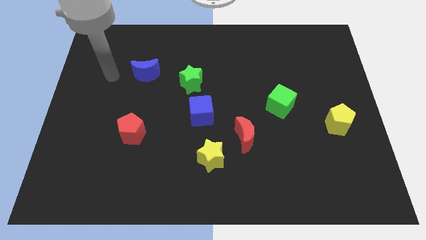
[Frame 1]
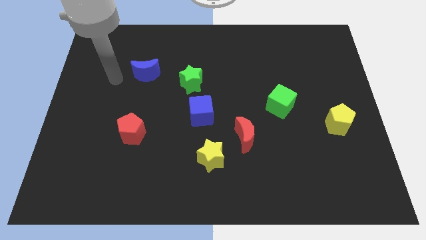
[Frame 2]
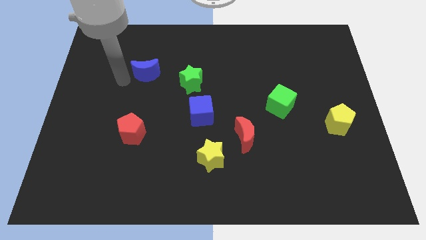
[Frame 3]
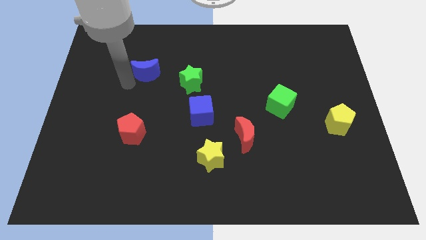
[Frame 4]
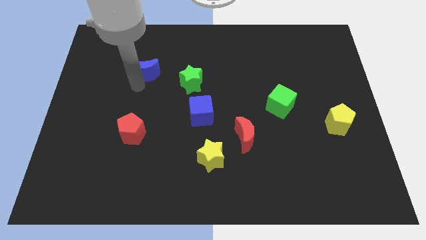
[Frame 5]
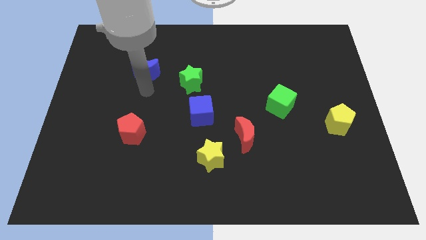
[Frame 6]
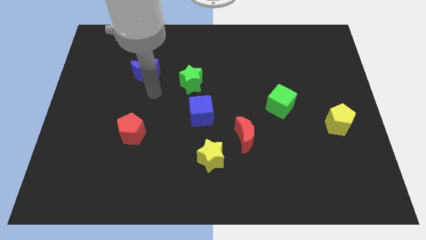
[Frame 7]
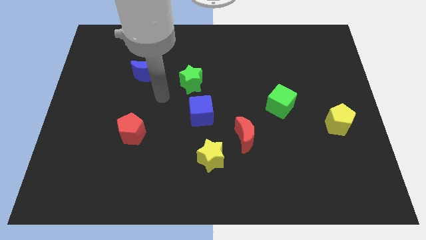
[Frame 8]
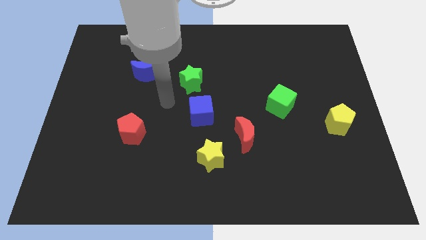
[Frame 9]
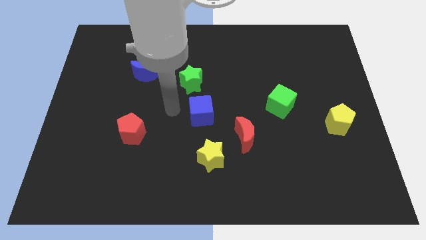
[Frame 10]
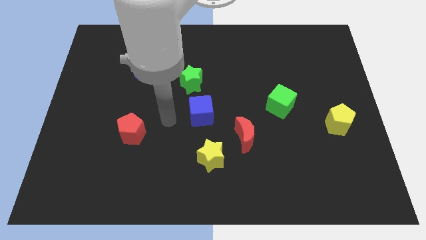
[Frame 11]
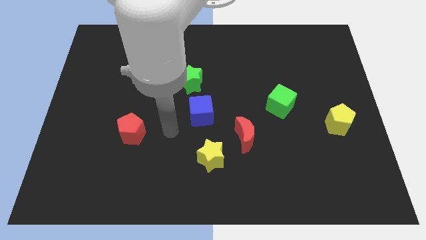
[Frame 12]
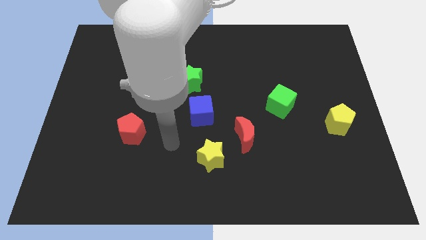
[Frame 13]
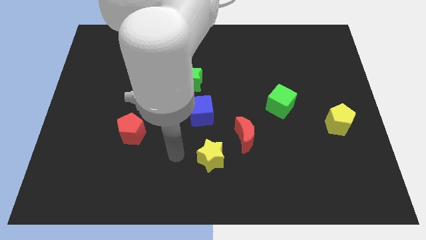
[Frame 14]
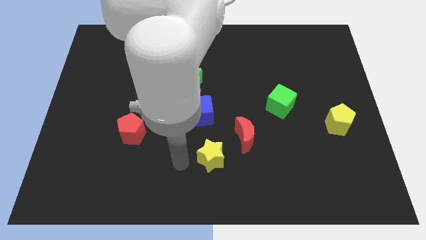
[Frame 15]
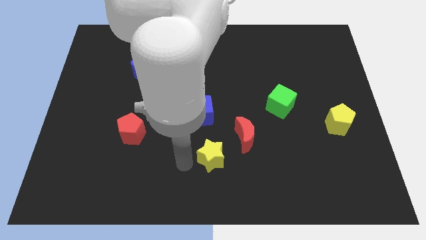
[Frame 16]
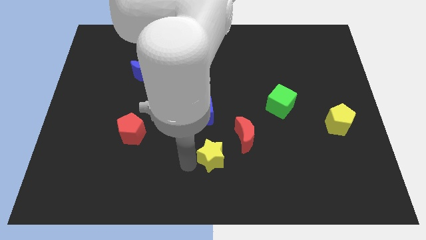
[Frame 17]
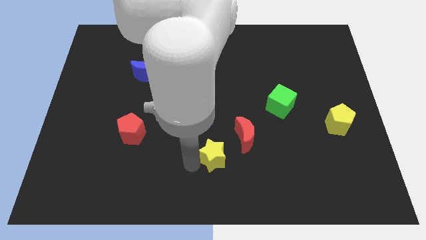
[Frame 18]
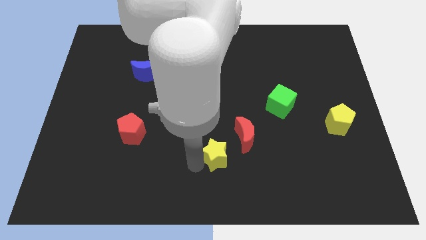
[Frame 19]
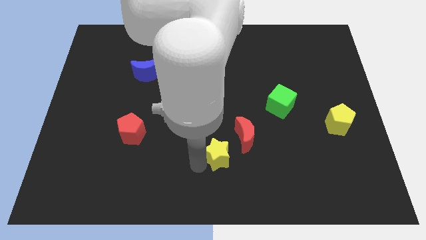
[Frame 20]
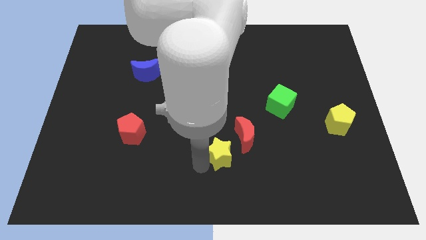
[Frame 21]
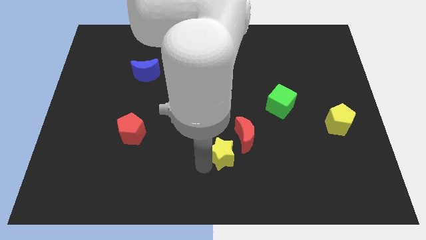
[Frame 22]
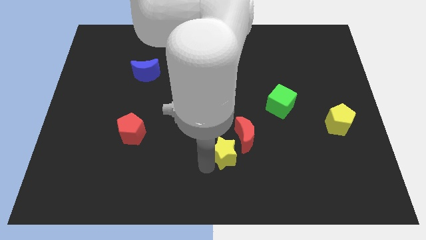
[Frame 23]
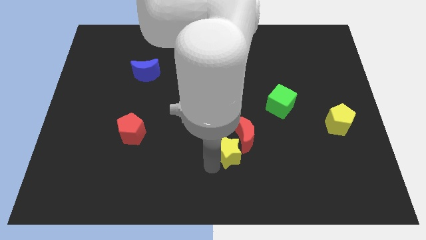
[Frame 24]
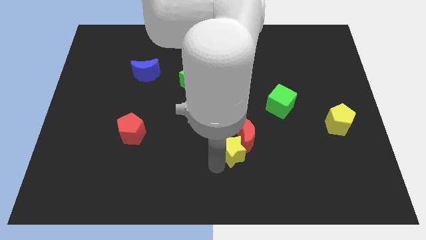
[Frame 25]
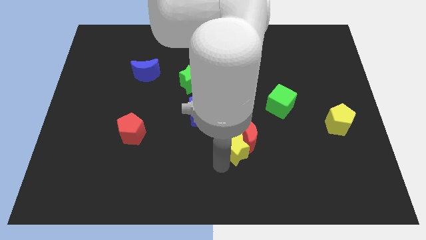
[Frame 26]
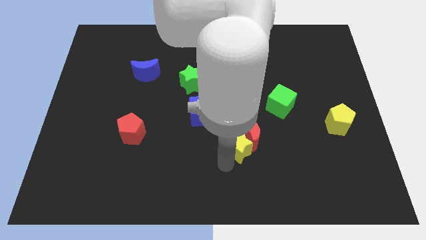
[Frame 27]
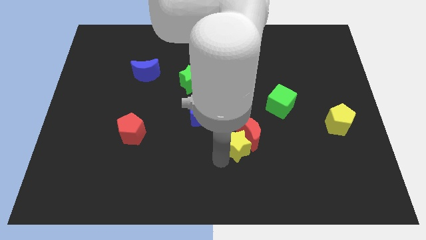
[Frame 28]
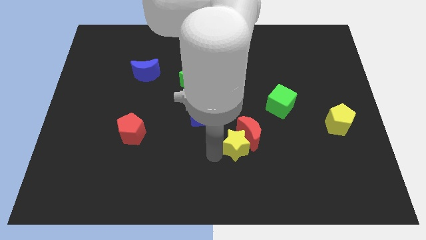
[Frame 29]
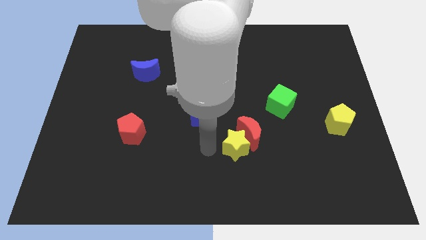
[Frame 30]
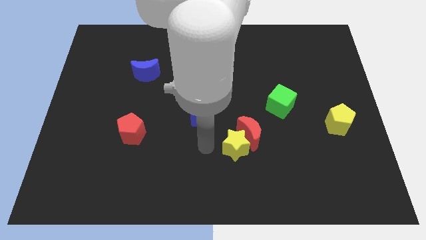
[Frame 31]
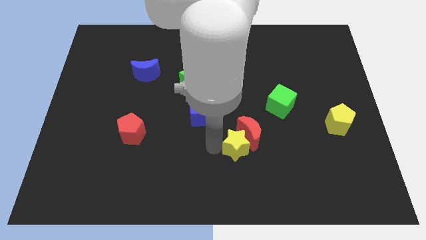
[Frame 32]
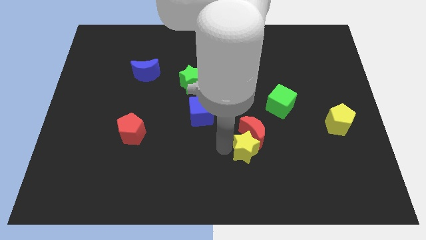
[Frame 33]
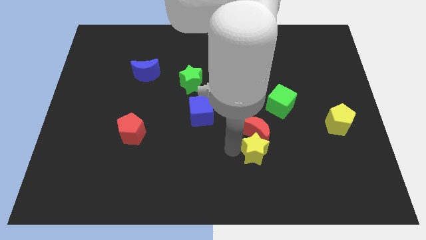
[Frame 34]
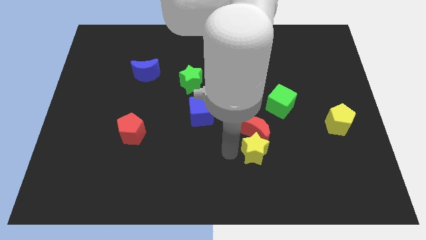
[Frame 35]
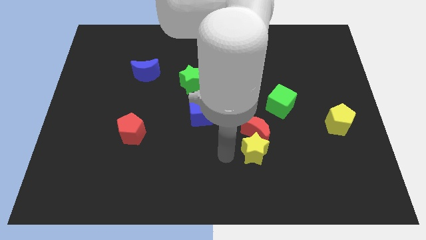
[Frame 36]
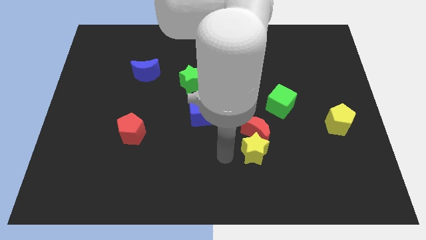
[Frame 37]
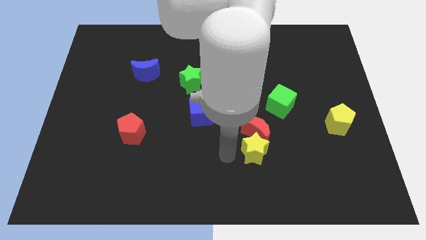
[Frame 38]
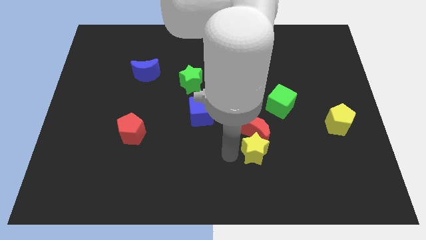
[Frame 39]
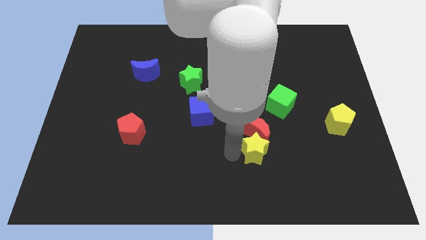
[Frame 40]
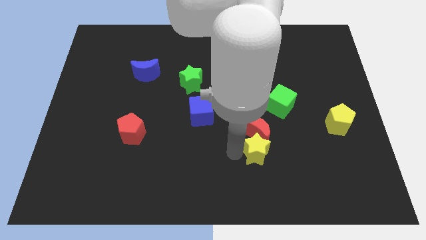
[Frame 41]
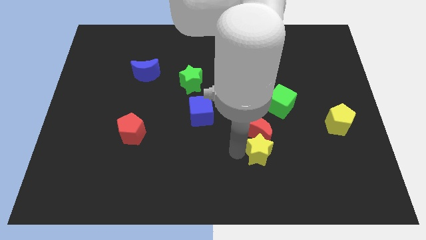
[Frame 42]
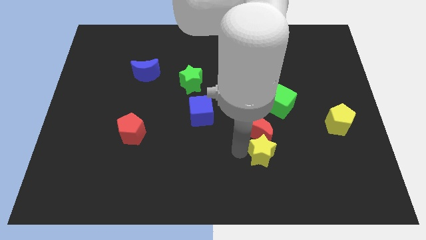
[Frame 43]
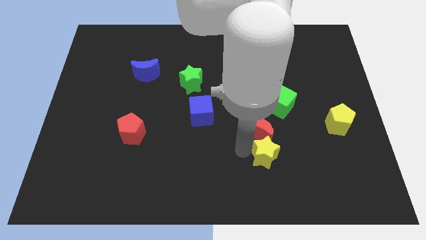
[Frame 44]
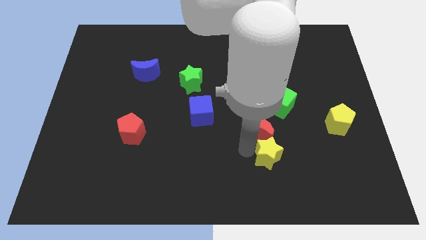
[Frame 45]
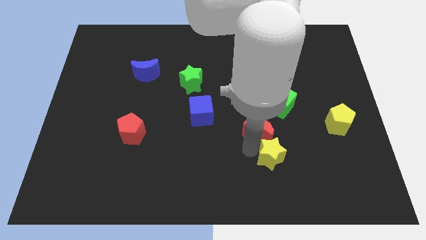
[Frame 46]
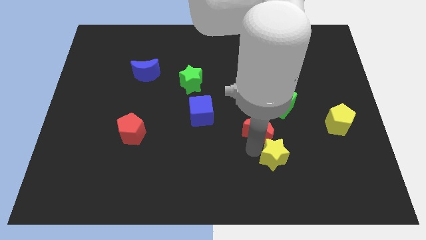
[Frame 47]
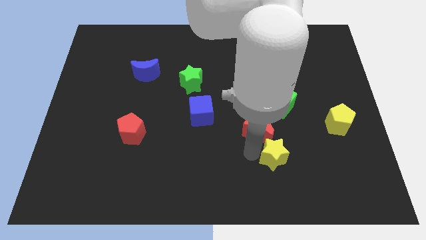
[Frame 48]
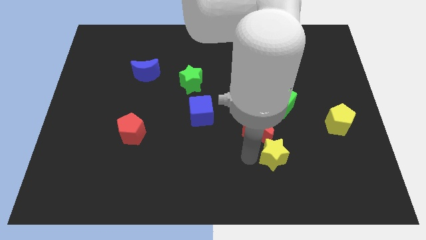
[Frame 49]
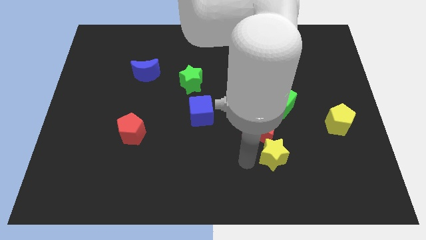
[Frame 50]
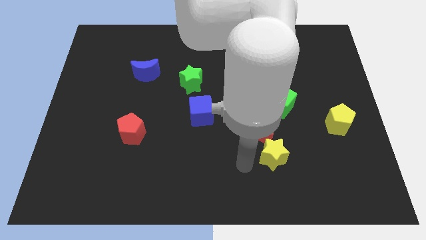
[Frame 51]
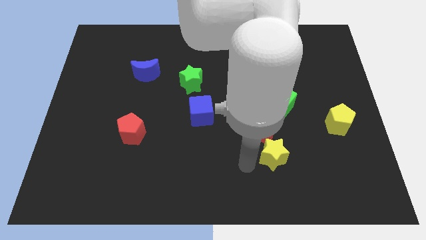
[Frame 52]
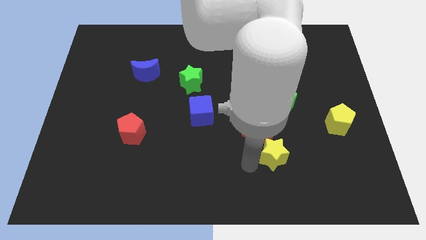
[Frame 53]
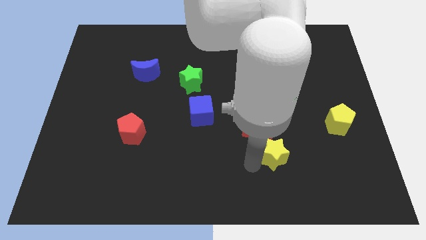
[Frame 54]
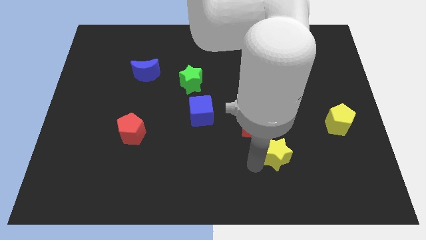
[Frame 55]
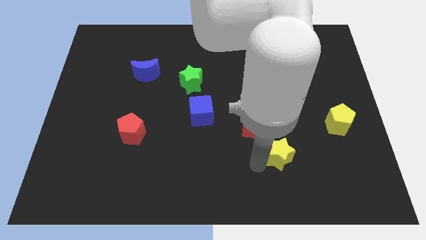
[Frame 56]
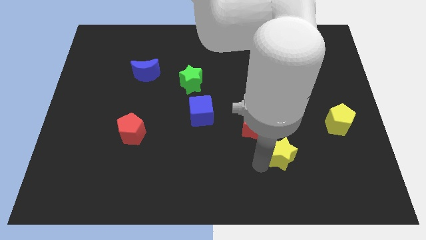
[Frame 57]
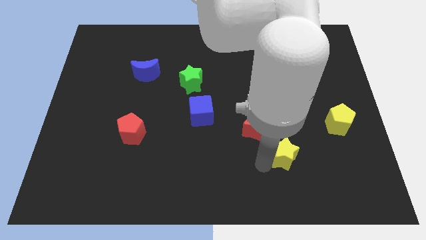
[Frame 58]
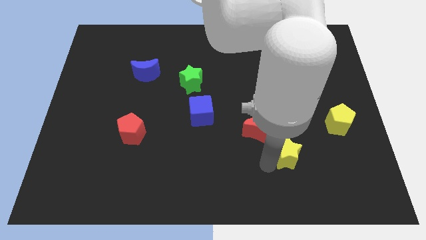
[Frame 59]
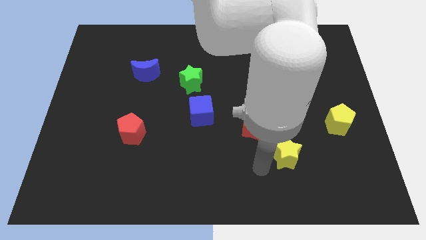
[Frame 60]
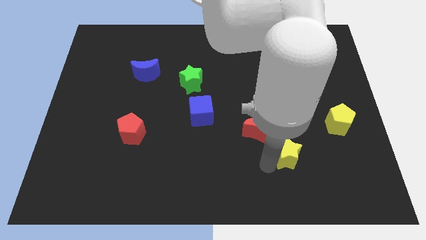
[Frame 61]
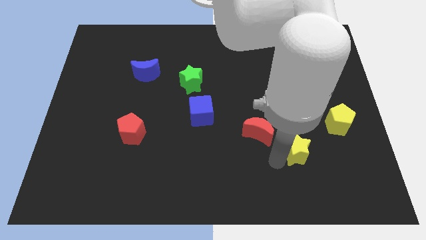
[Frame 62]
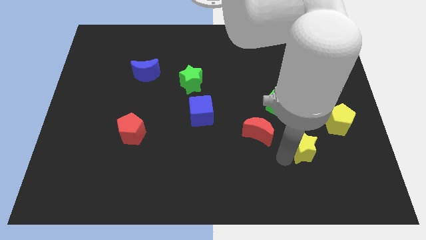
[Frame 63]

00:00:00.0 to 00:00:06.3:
slide the yellow star to the bottom left side of the yellow pentagon

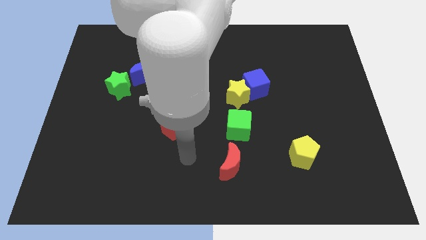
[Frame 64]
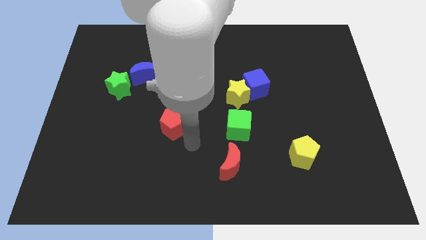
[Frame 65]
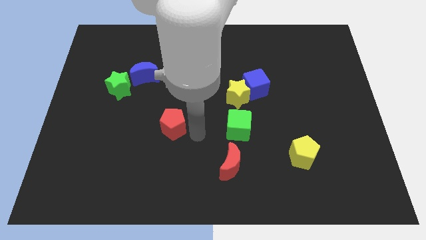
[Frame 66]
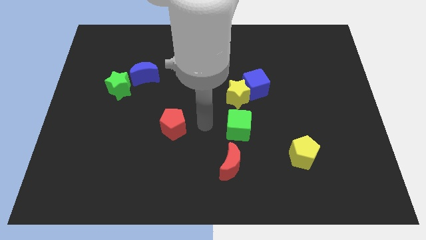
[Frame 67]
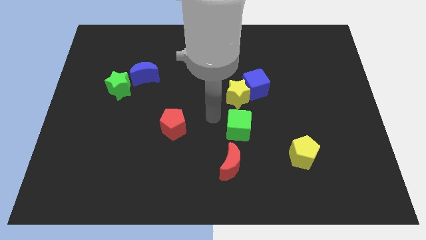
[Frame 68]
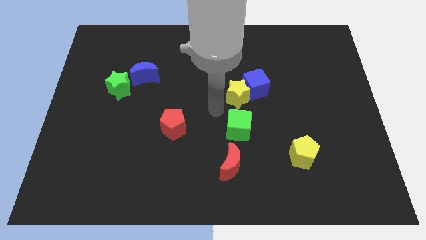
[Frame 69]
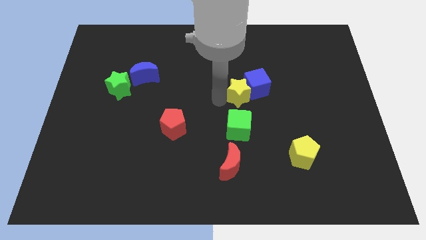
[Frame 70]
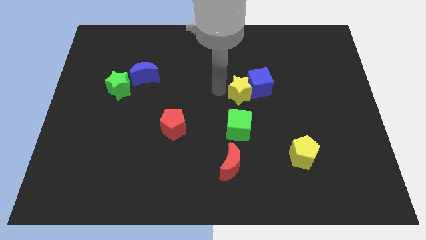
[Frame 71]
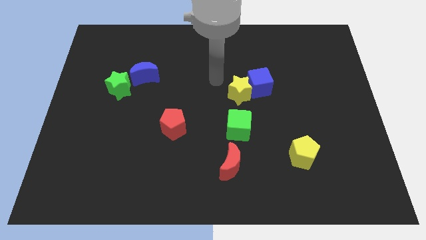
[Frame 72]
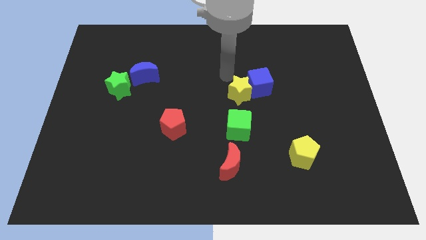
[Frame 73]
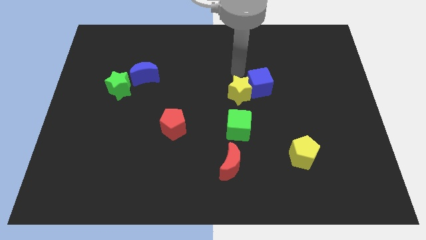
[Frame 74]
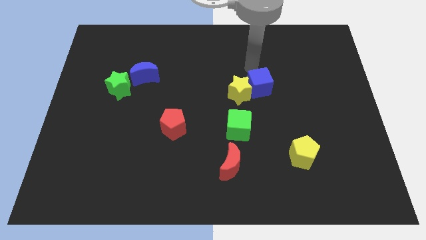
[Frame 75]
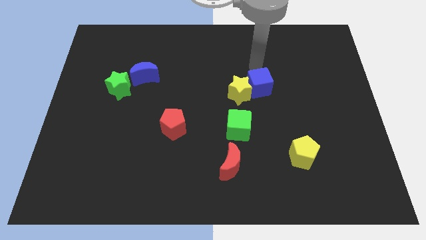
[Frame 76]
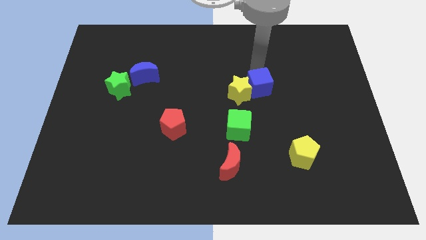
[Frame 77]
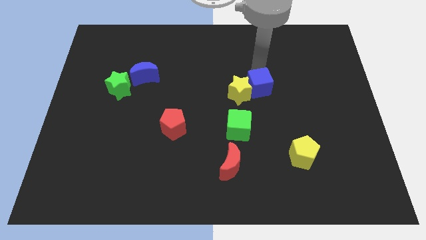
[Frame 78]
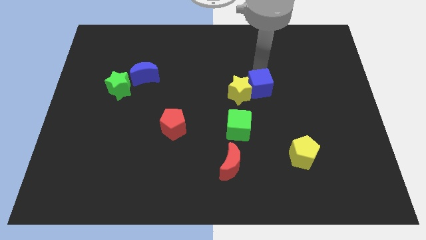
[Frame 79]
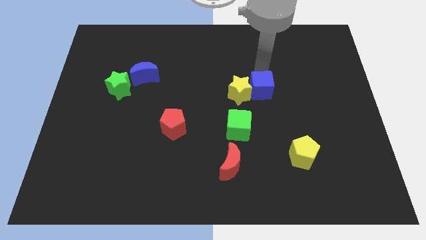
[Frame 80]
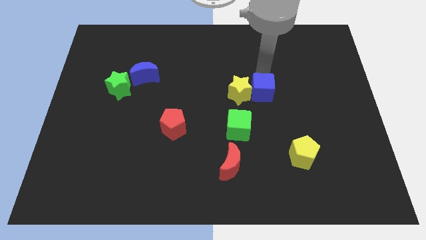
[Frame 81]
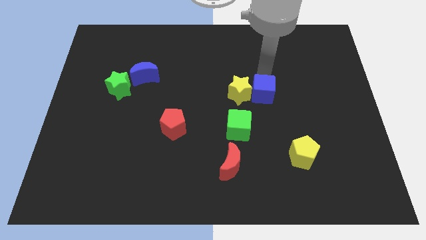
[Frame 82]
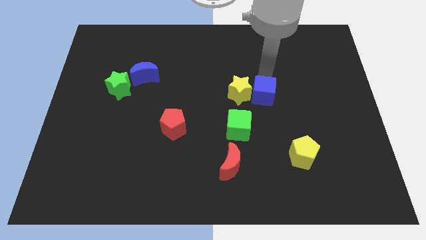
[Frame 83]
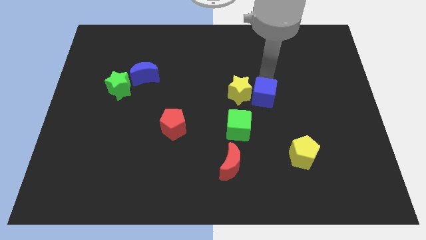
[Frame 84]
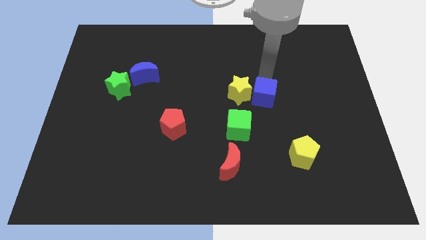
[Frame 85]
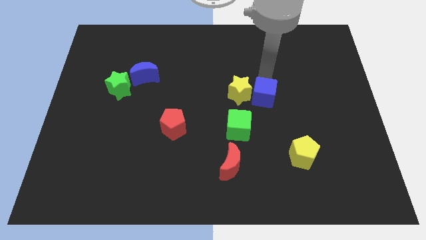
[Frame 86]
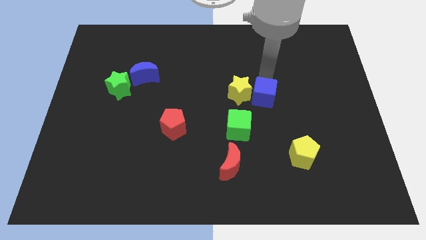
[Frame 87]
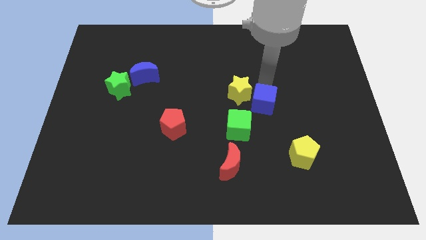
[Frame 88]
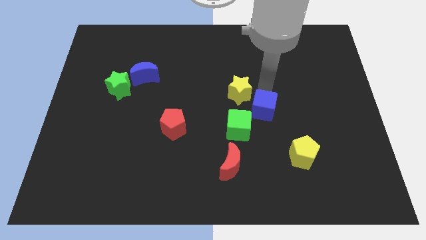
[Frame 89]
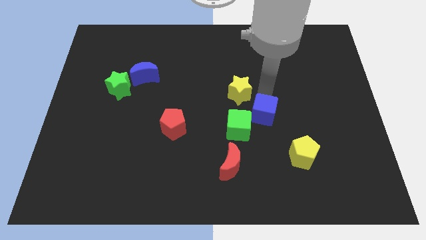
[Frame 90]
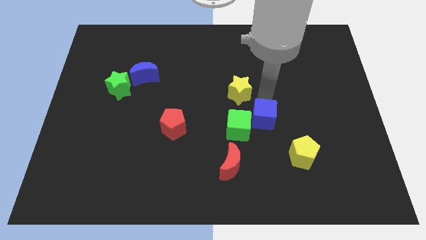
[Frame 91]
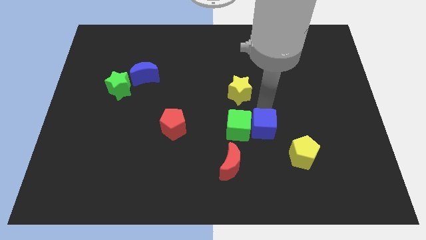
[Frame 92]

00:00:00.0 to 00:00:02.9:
push the blue cube to the bottom right side of the green cube
